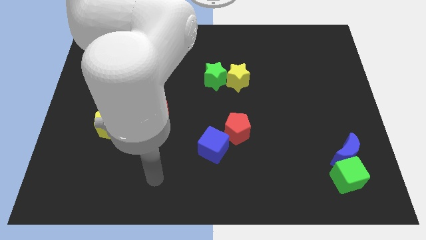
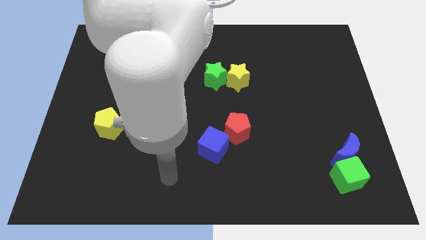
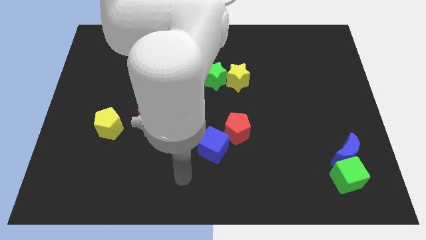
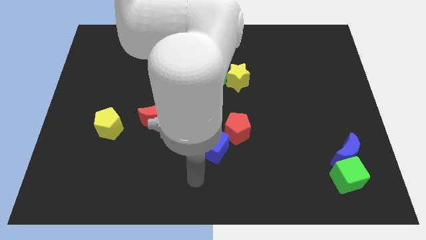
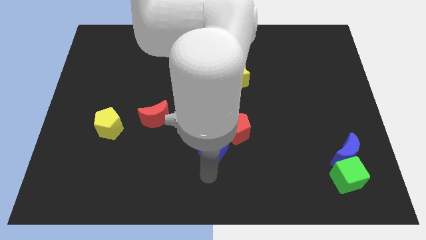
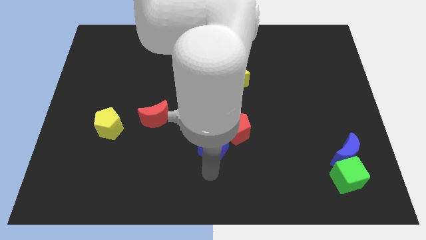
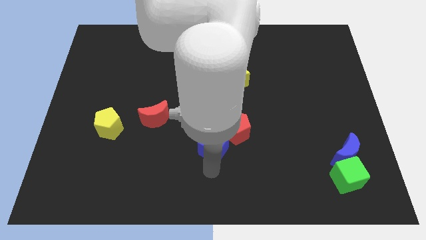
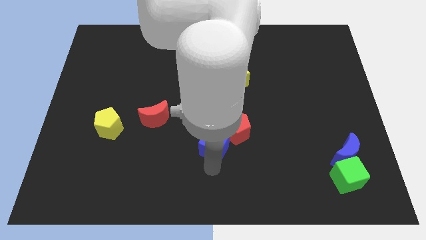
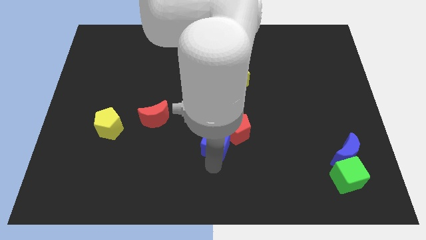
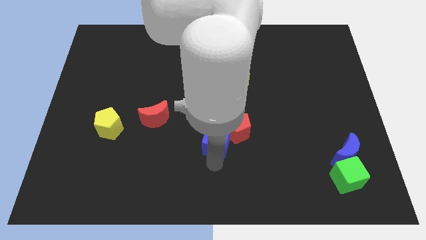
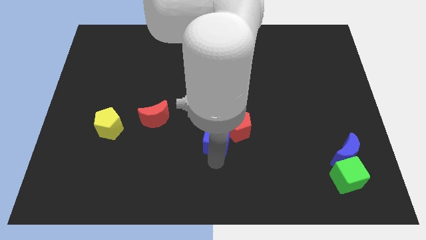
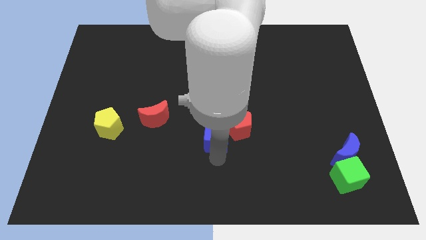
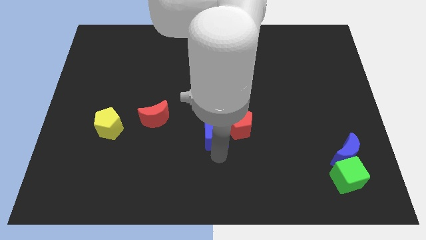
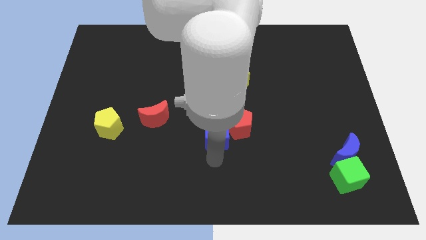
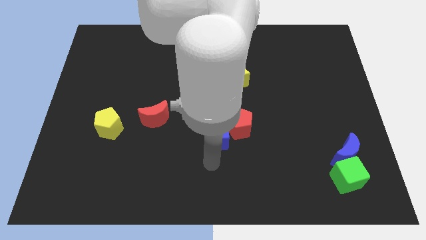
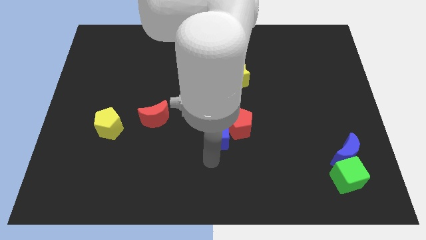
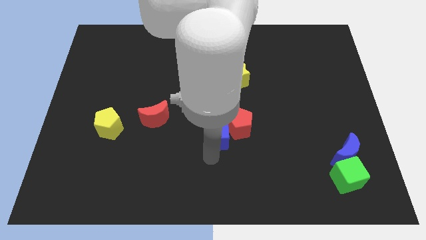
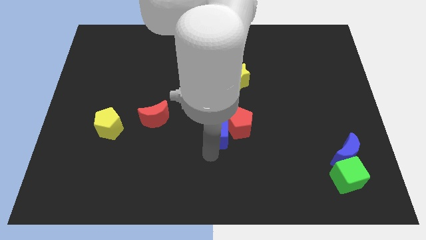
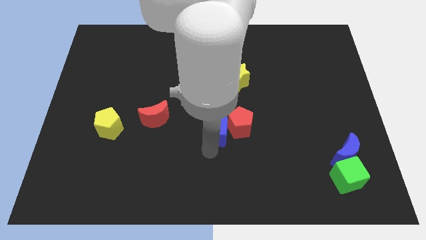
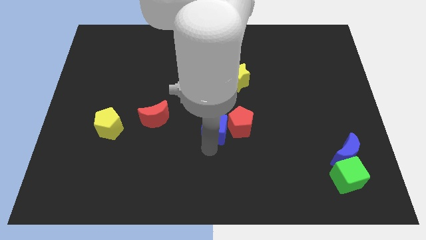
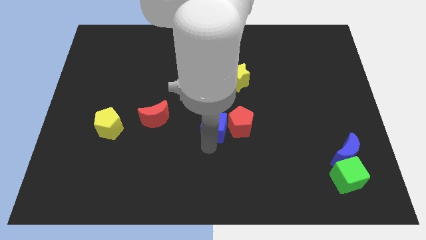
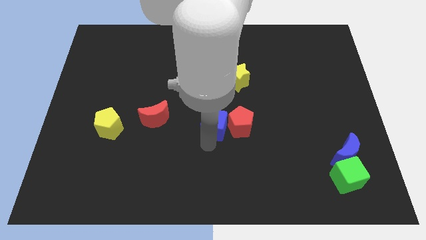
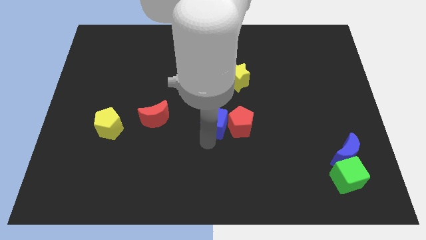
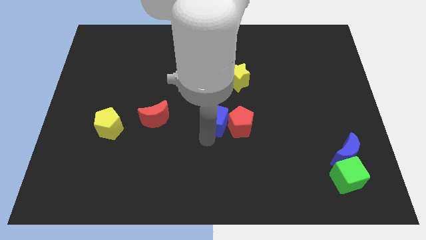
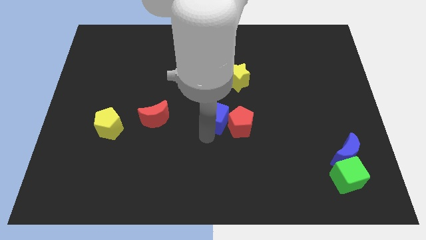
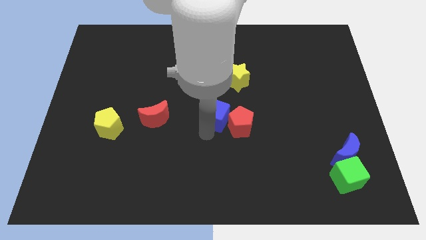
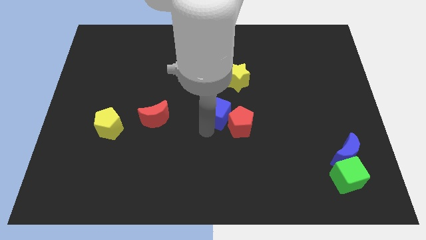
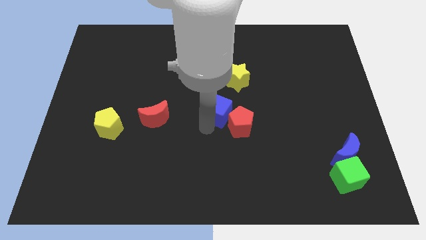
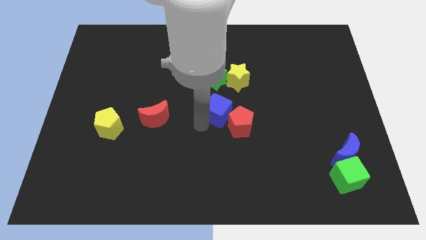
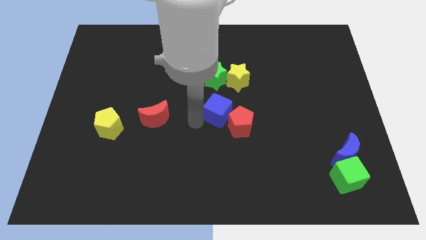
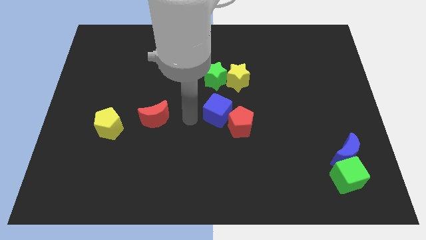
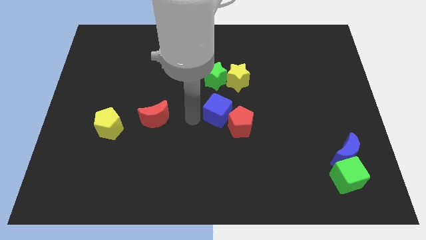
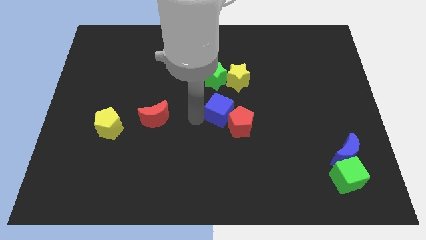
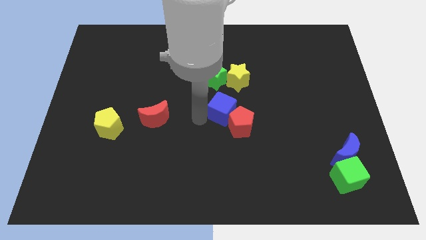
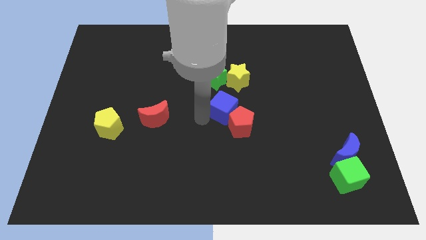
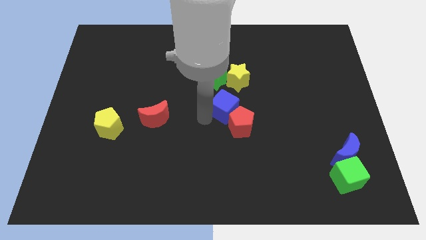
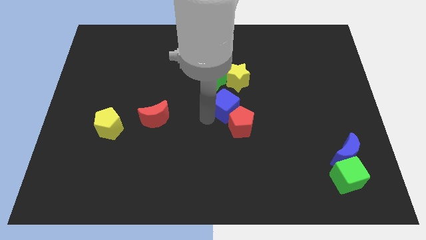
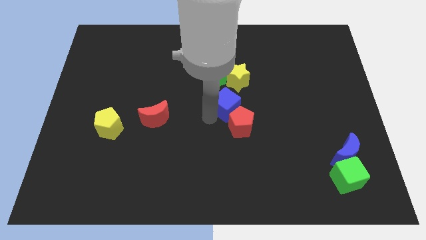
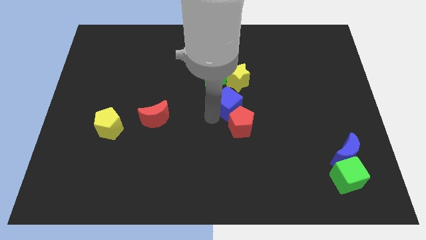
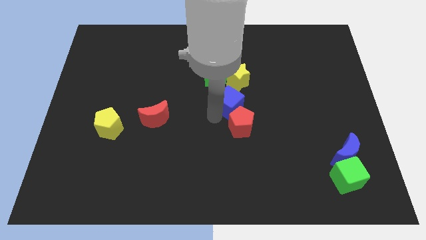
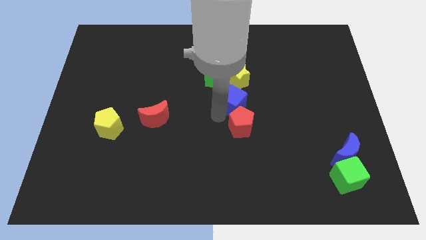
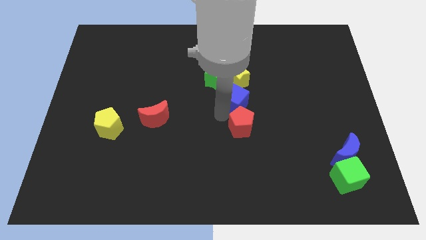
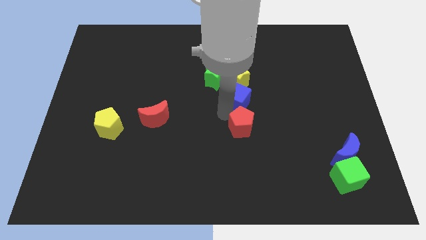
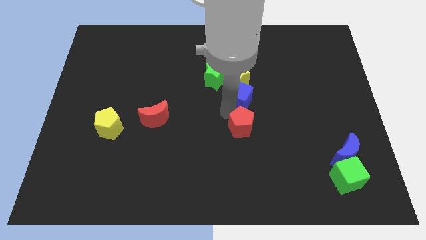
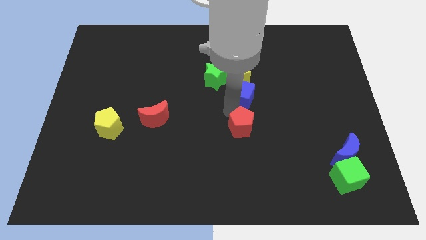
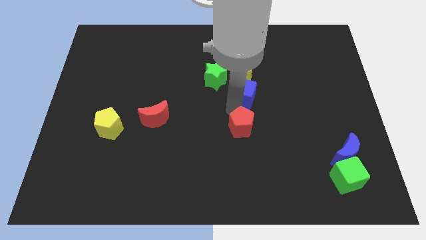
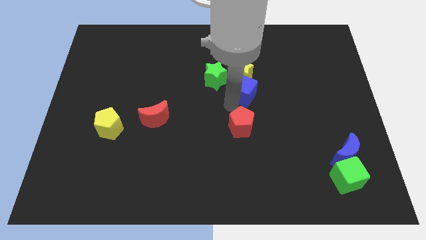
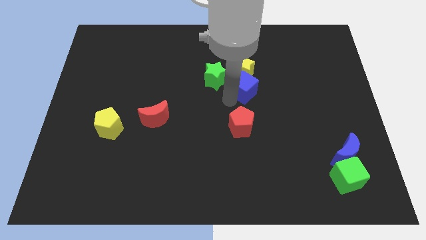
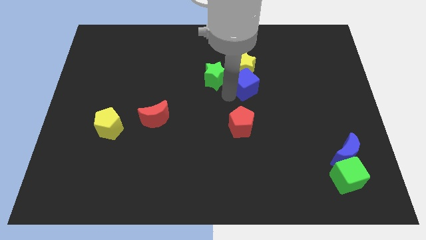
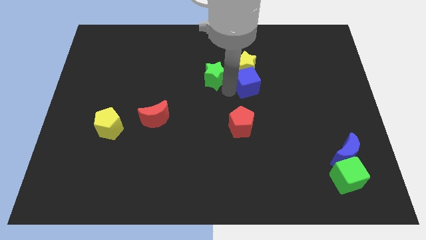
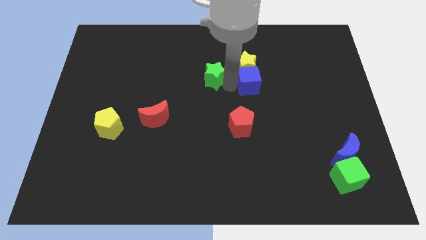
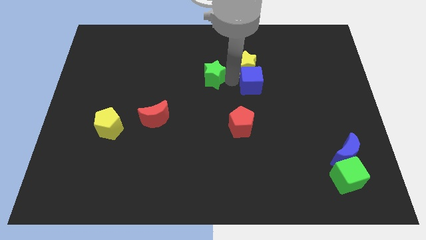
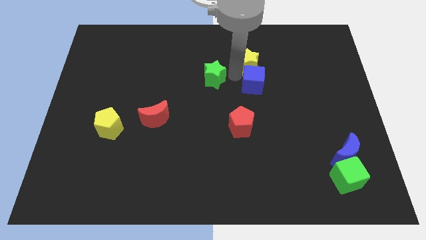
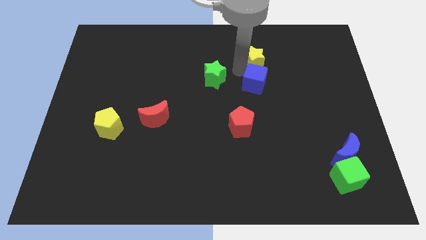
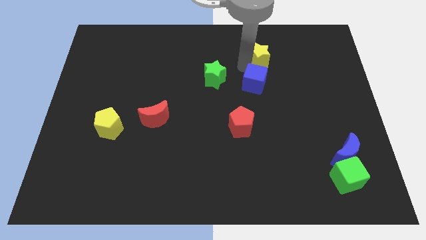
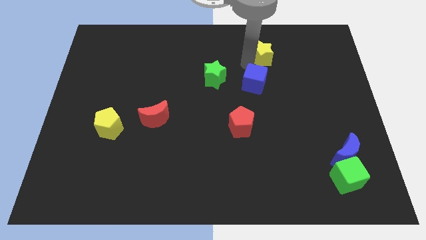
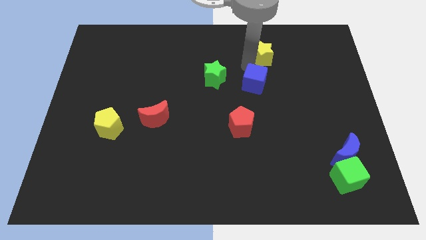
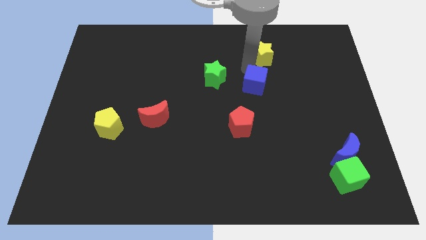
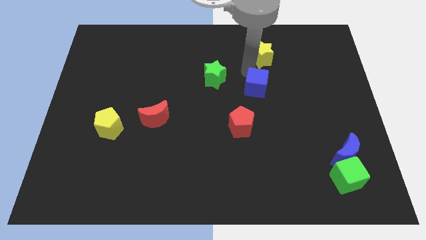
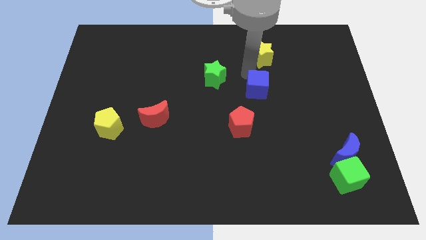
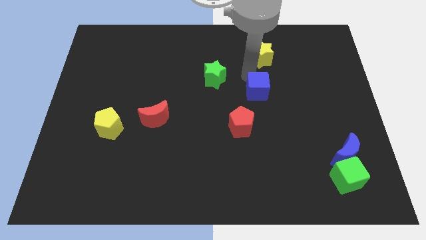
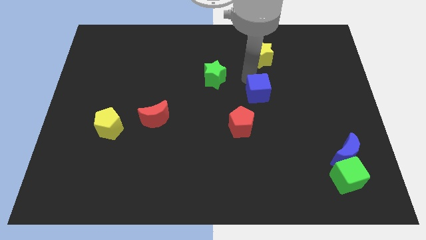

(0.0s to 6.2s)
slide the blue cube diagonally up and to the right of the red pentagon

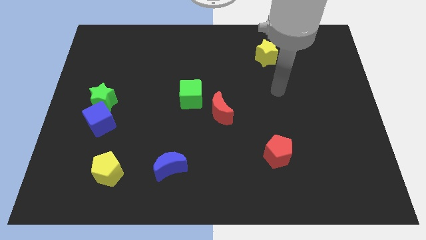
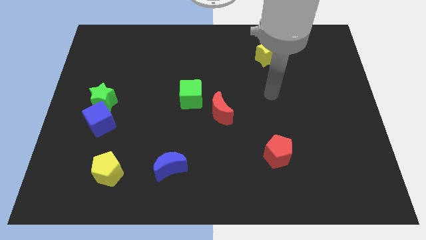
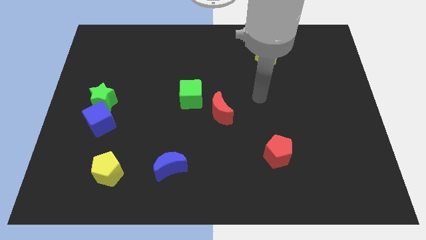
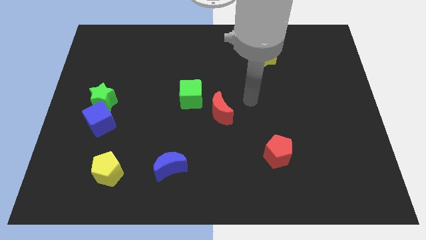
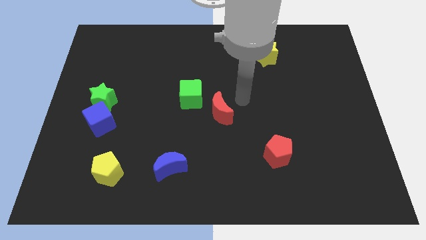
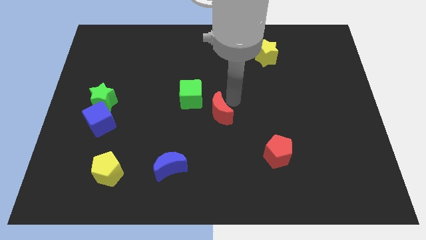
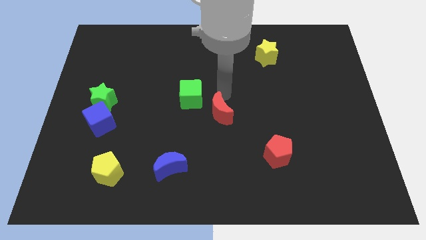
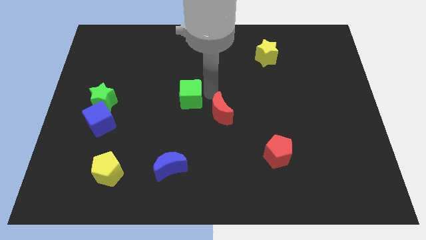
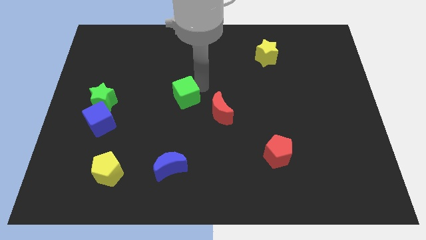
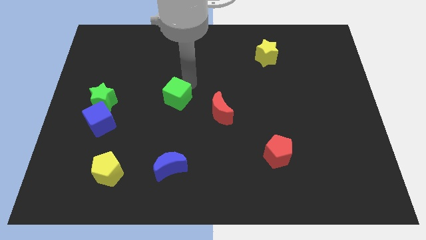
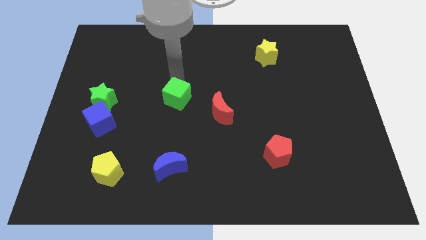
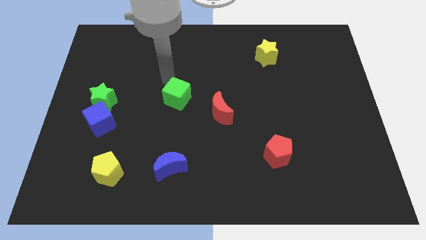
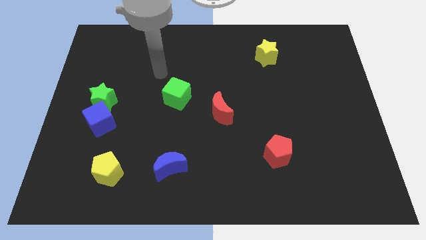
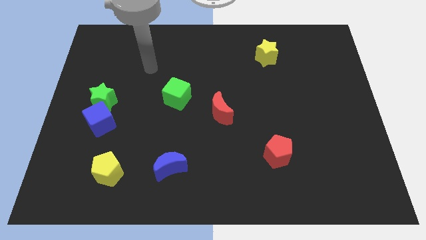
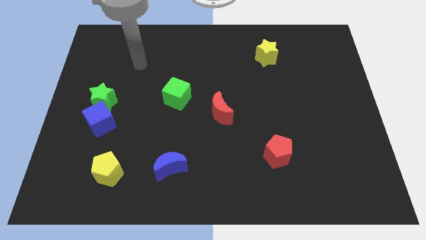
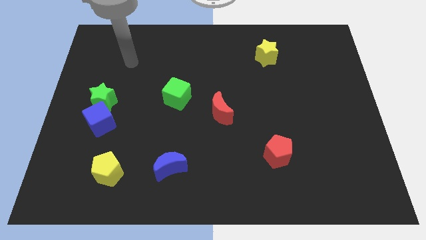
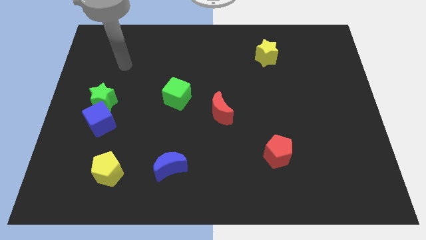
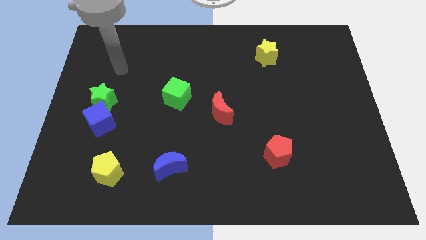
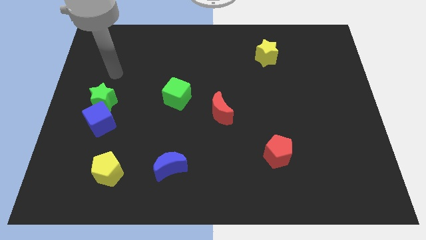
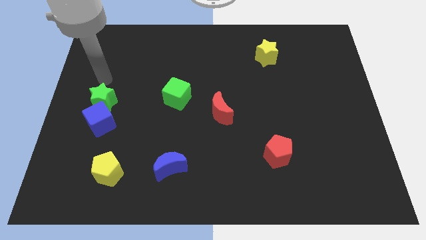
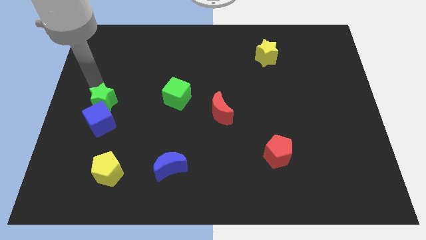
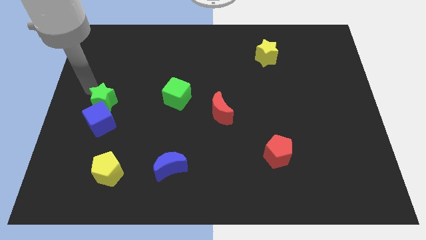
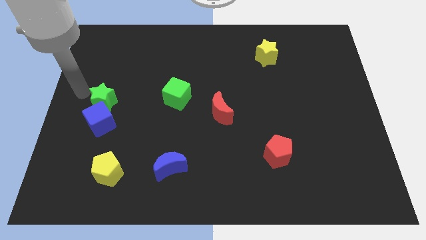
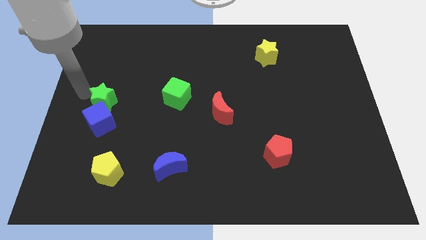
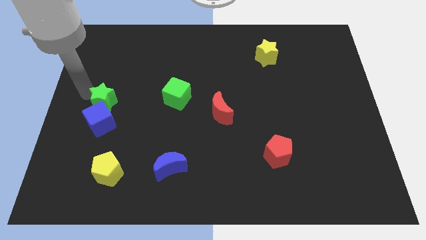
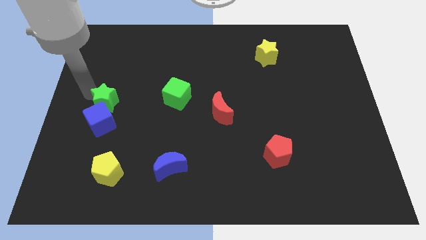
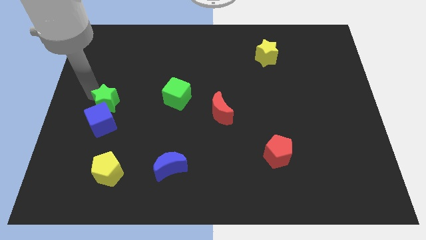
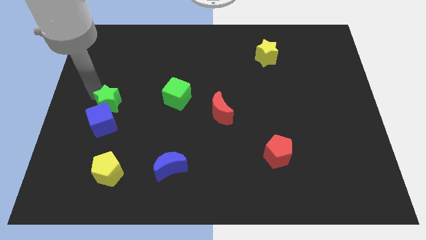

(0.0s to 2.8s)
move the green star left of the green cube
